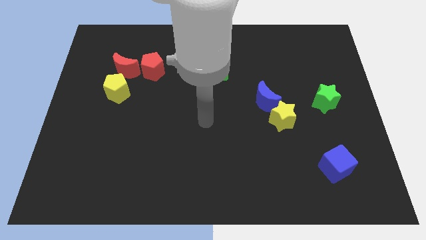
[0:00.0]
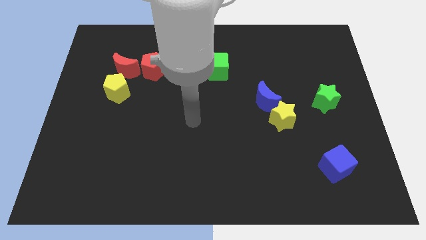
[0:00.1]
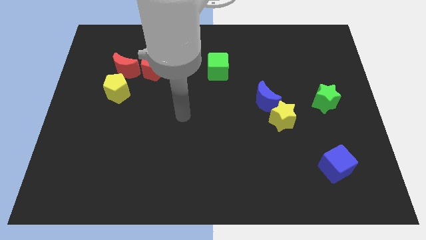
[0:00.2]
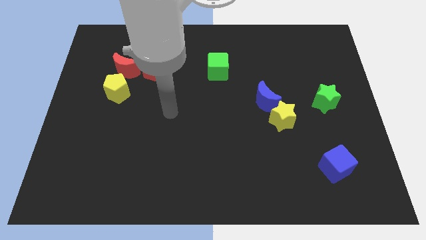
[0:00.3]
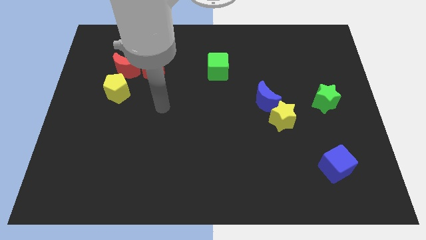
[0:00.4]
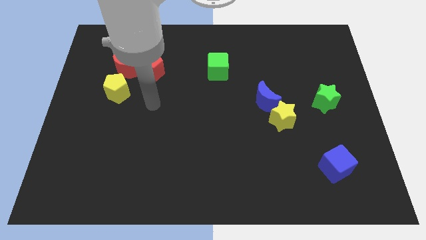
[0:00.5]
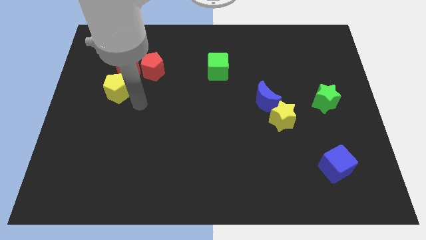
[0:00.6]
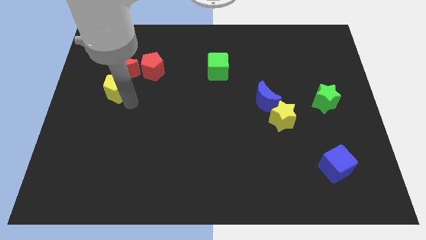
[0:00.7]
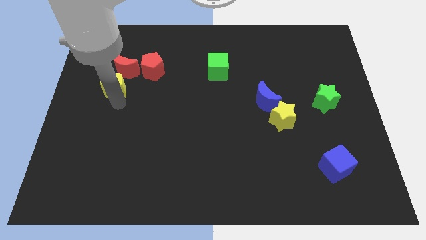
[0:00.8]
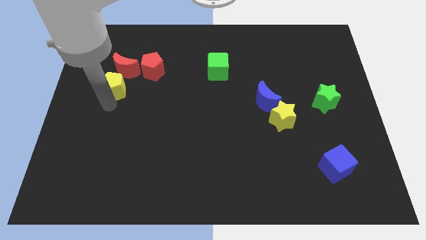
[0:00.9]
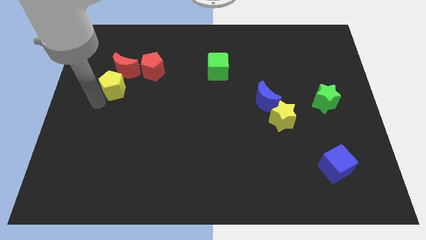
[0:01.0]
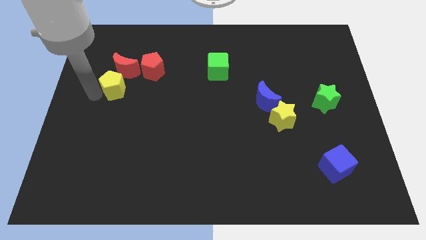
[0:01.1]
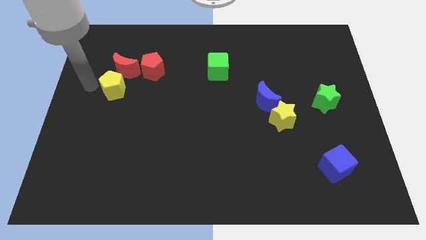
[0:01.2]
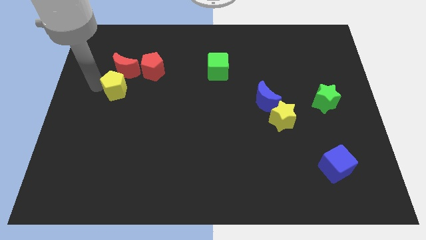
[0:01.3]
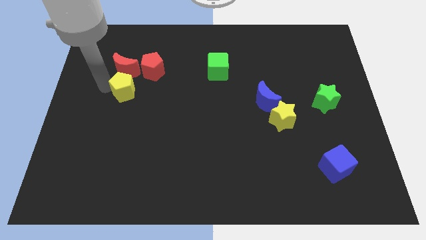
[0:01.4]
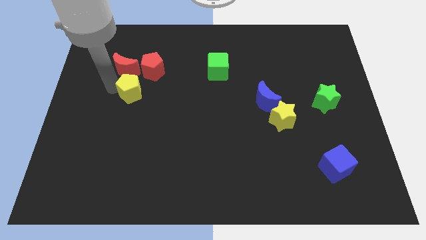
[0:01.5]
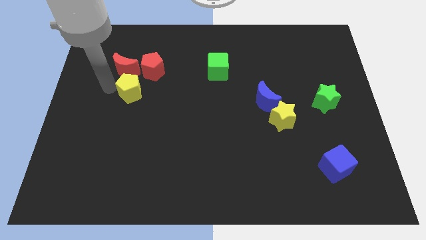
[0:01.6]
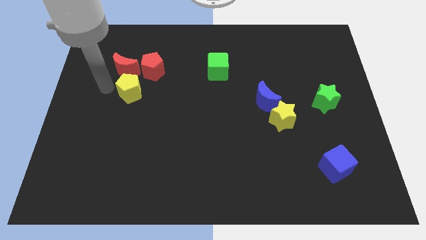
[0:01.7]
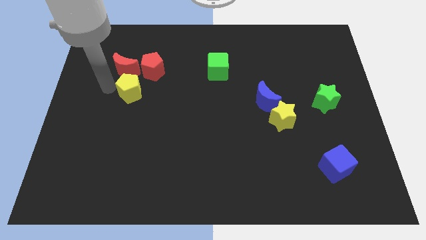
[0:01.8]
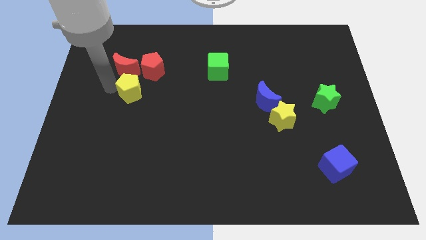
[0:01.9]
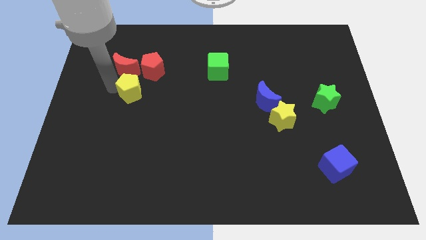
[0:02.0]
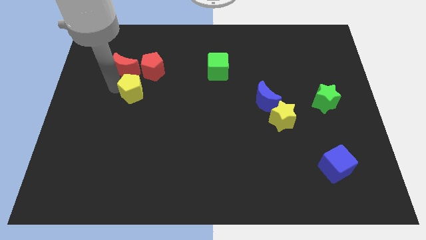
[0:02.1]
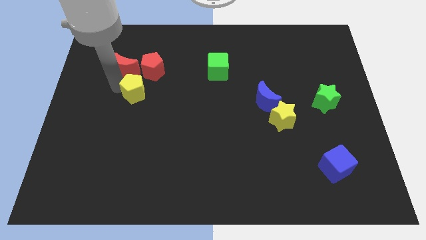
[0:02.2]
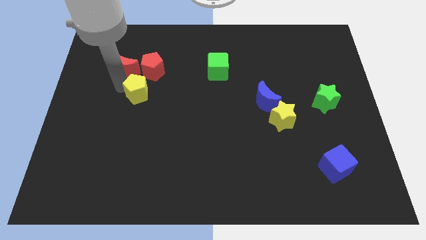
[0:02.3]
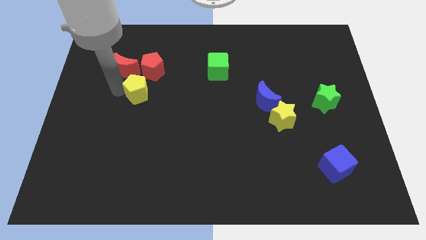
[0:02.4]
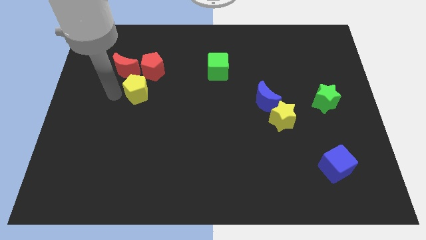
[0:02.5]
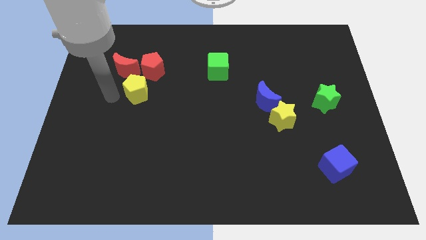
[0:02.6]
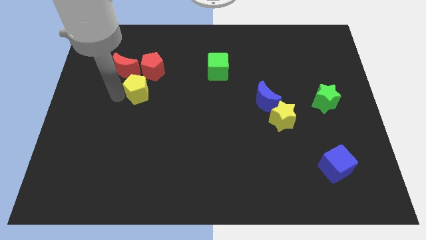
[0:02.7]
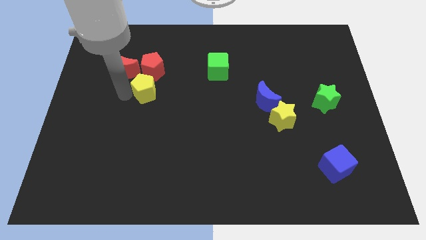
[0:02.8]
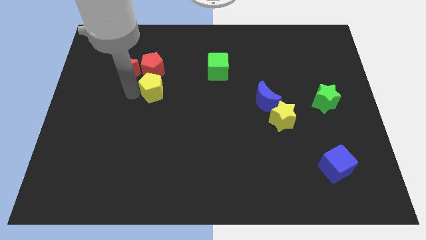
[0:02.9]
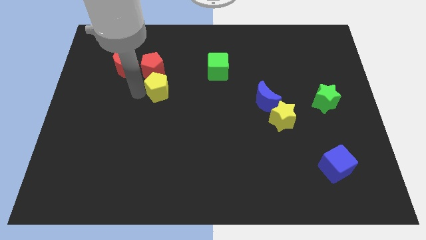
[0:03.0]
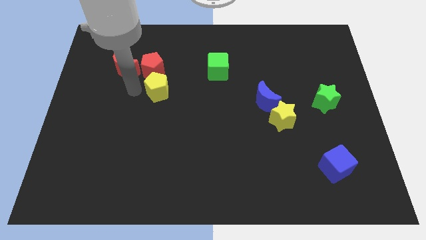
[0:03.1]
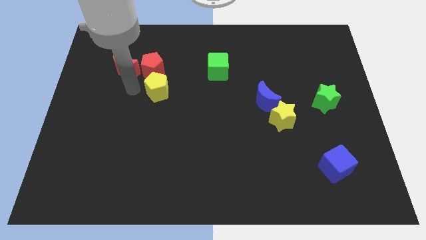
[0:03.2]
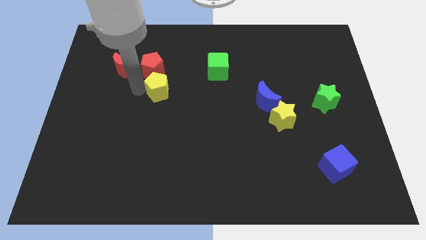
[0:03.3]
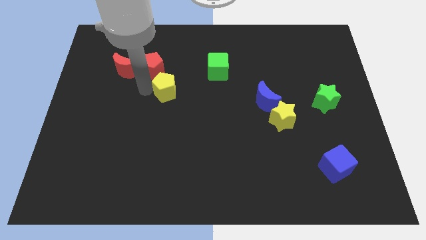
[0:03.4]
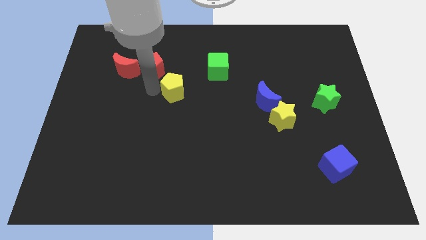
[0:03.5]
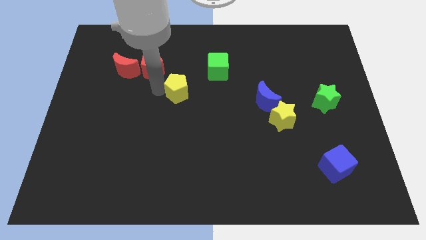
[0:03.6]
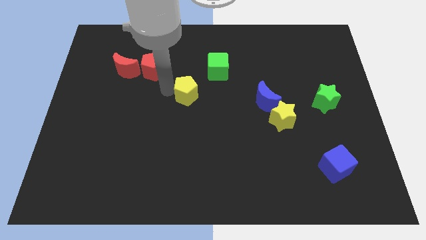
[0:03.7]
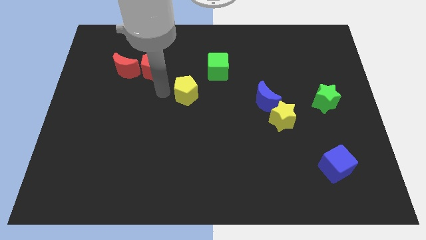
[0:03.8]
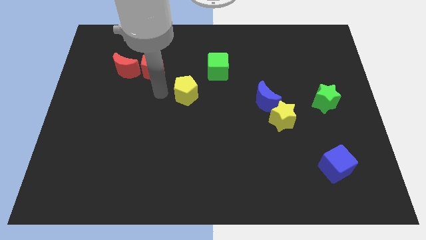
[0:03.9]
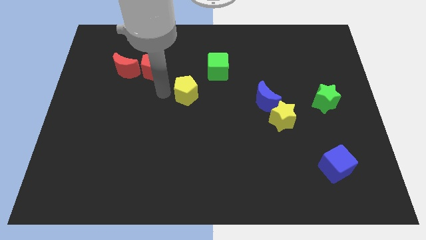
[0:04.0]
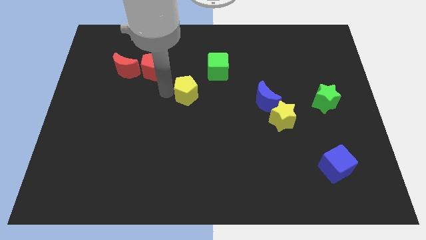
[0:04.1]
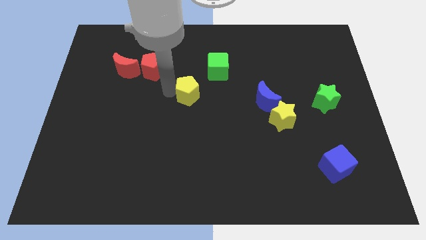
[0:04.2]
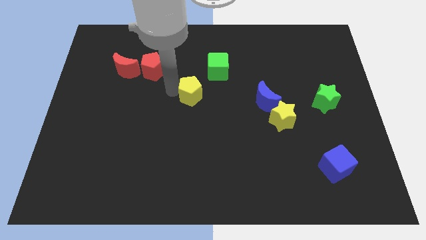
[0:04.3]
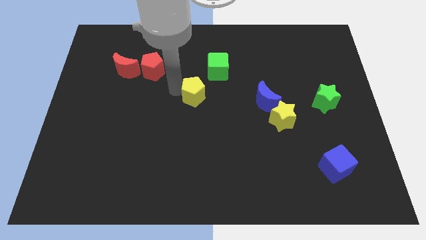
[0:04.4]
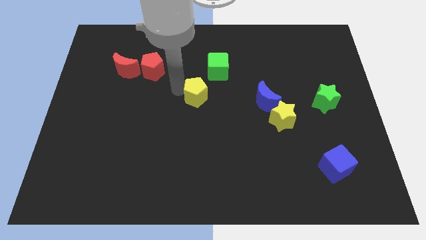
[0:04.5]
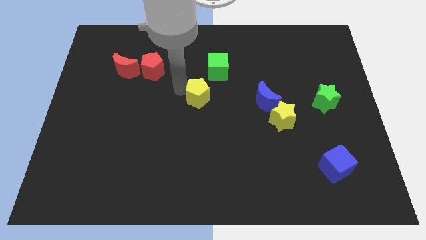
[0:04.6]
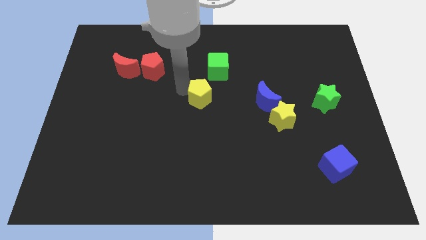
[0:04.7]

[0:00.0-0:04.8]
move the yellow pentagon right

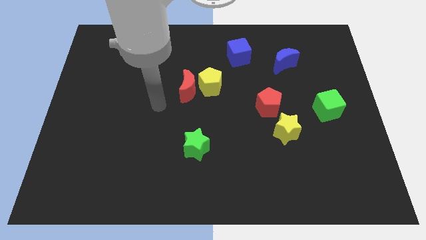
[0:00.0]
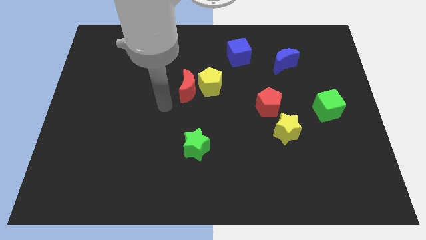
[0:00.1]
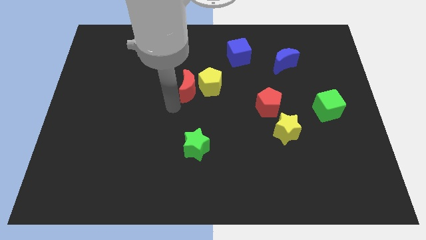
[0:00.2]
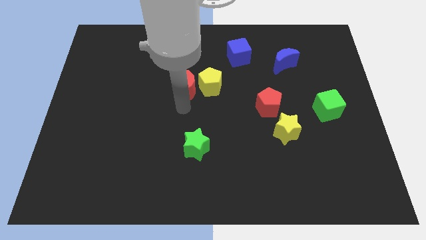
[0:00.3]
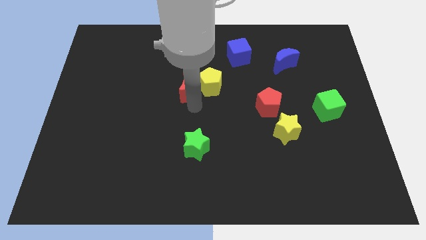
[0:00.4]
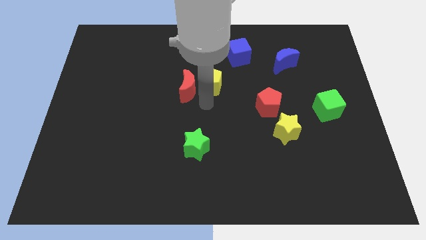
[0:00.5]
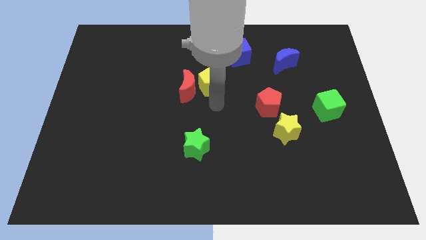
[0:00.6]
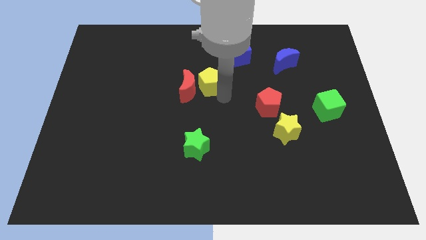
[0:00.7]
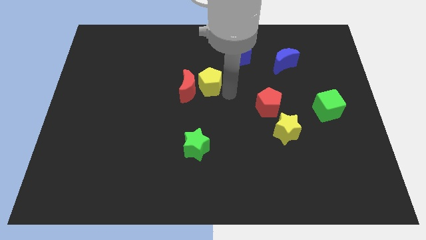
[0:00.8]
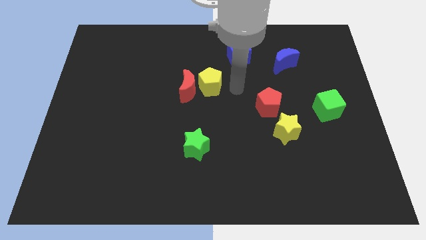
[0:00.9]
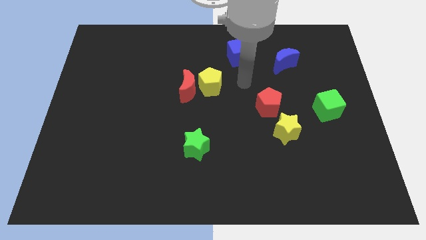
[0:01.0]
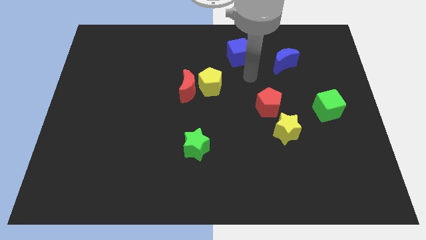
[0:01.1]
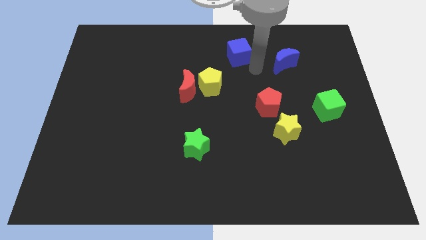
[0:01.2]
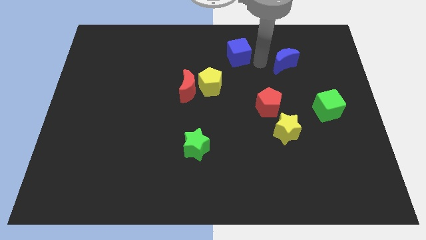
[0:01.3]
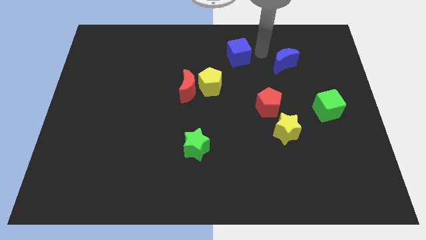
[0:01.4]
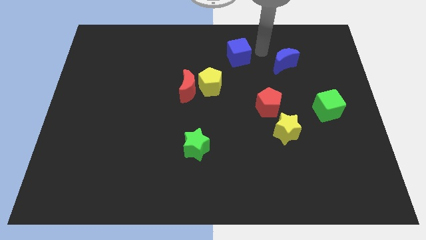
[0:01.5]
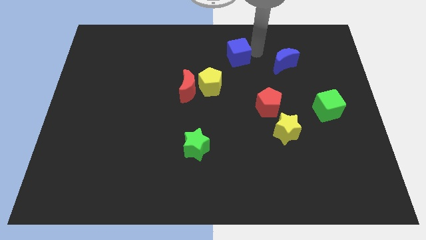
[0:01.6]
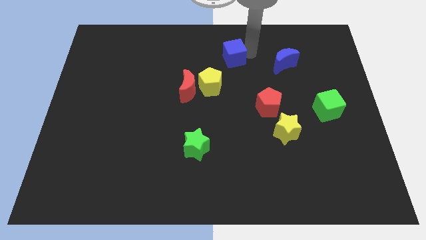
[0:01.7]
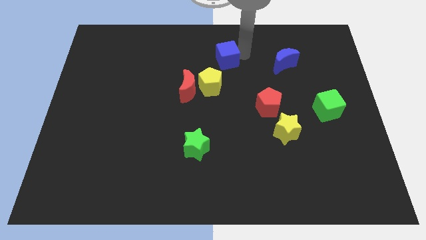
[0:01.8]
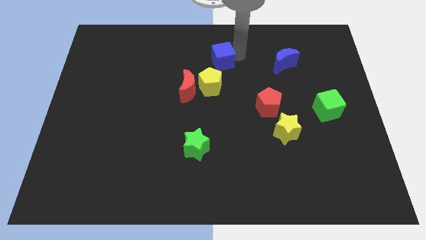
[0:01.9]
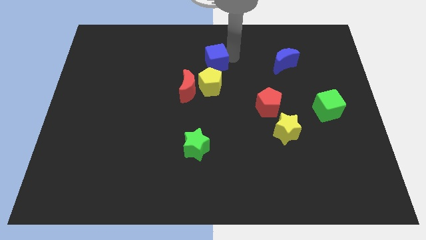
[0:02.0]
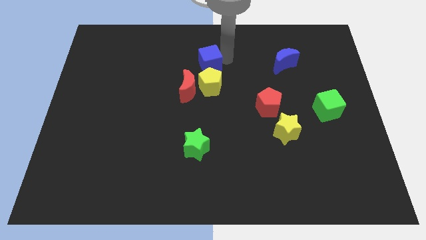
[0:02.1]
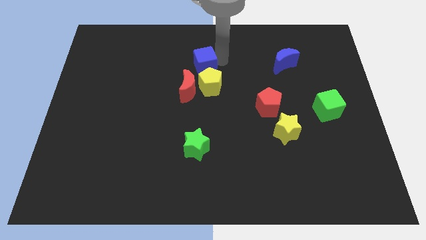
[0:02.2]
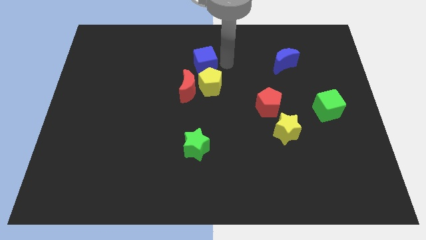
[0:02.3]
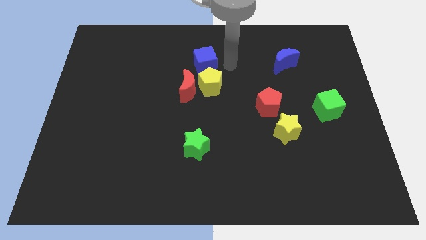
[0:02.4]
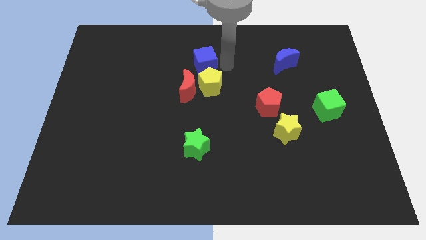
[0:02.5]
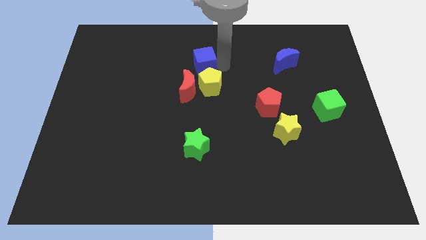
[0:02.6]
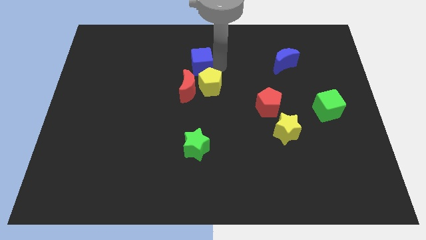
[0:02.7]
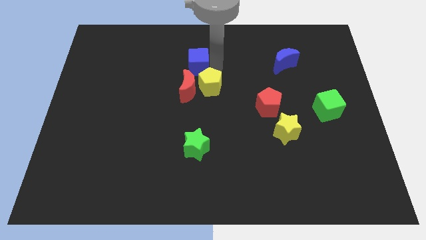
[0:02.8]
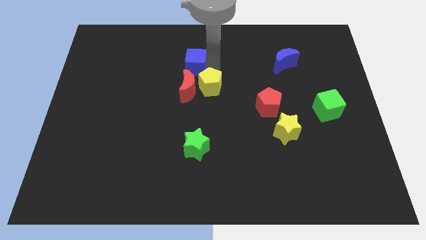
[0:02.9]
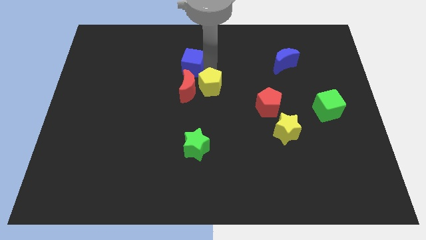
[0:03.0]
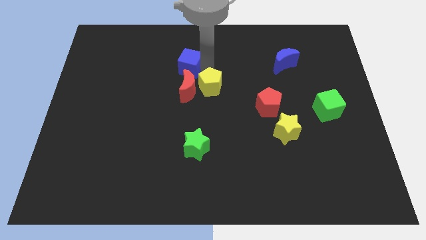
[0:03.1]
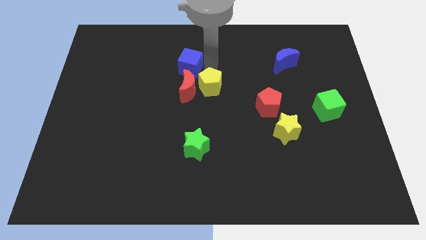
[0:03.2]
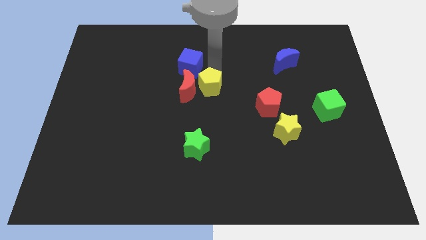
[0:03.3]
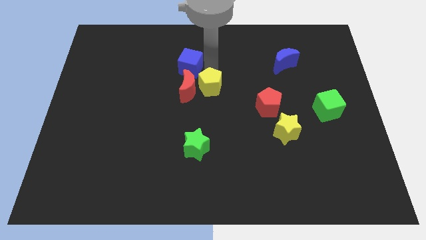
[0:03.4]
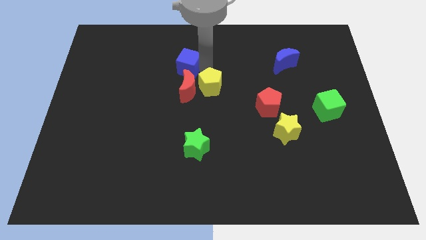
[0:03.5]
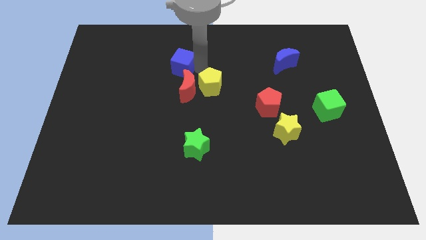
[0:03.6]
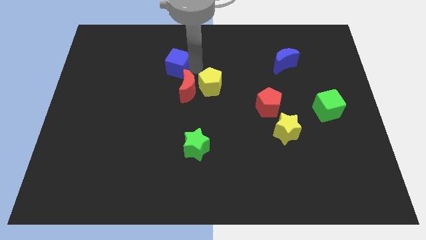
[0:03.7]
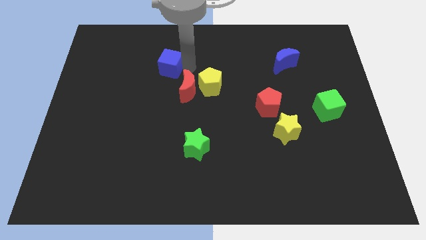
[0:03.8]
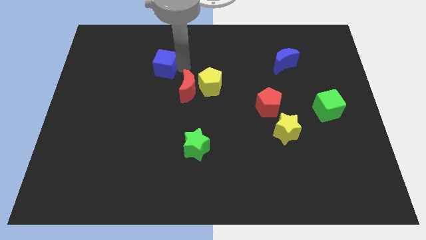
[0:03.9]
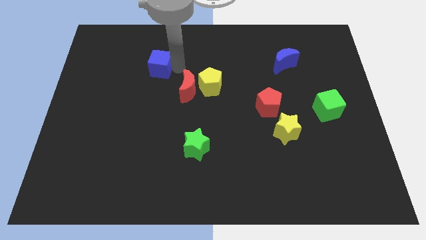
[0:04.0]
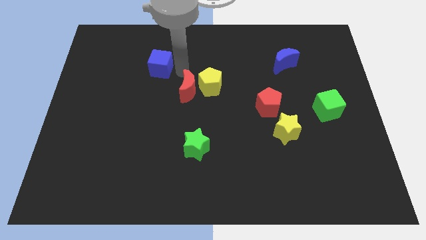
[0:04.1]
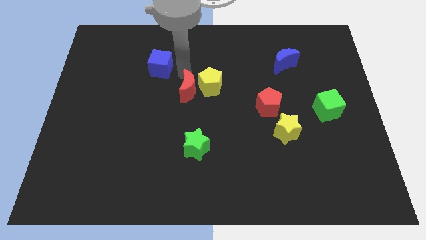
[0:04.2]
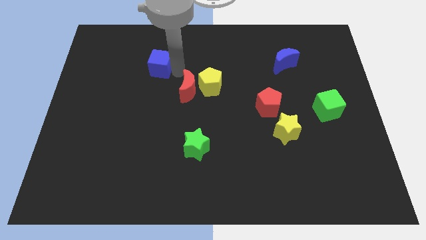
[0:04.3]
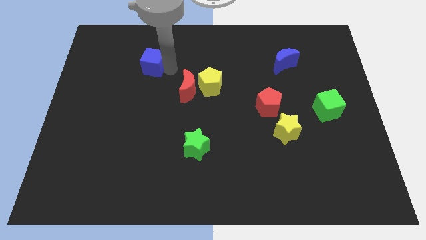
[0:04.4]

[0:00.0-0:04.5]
push the blue cube to the left
